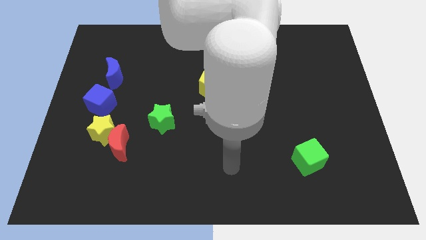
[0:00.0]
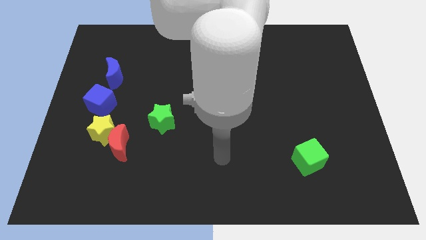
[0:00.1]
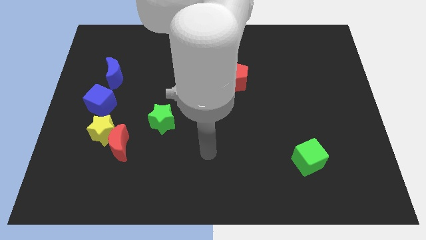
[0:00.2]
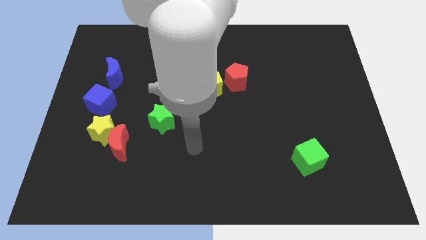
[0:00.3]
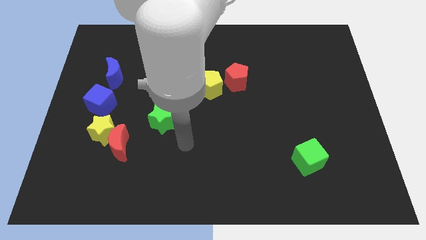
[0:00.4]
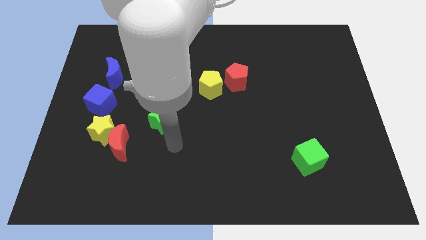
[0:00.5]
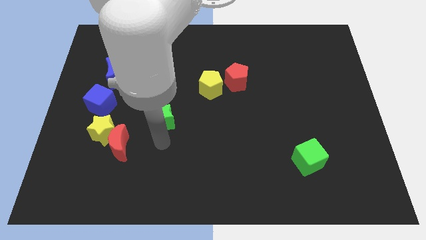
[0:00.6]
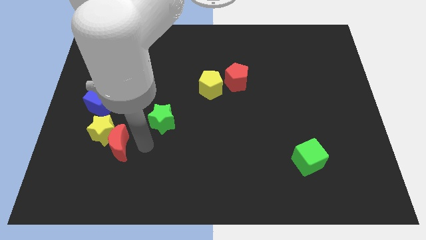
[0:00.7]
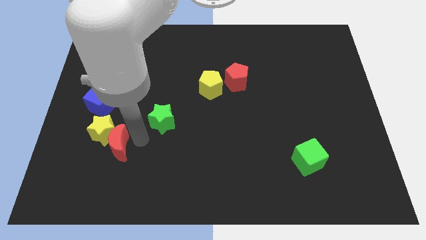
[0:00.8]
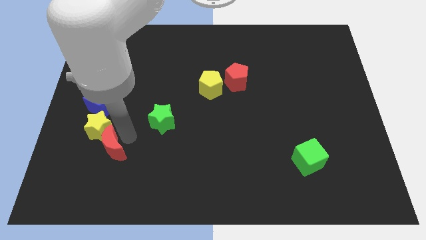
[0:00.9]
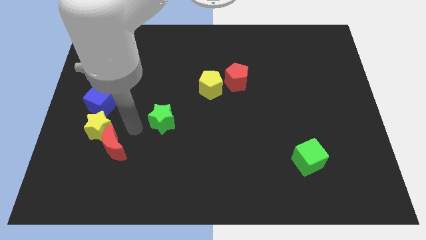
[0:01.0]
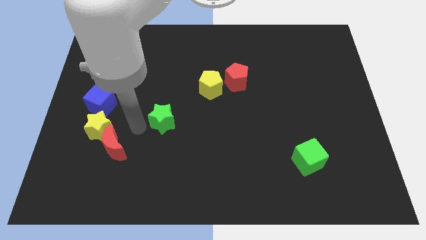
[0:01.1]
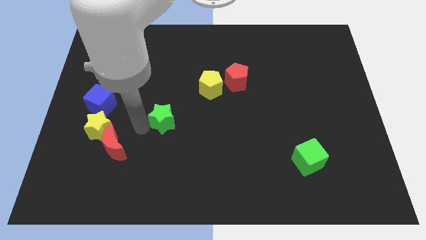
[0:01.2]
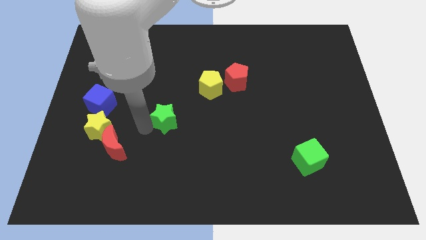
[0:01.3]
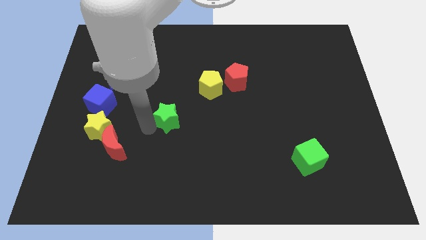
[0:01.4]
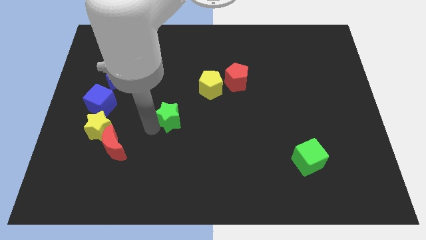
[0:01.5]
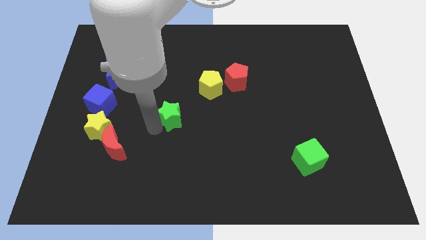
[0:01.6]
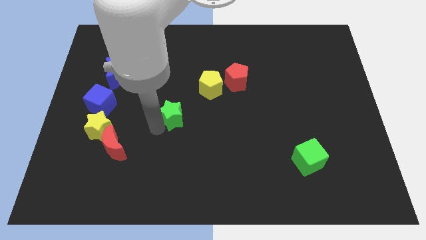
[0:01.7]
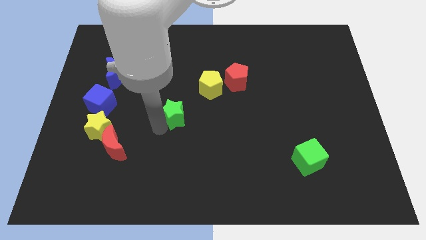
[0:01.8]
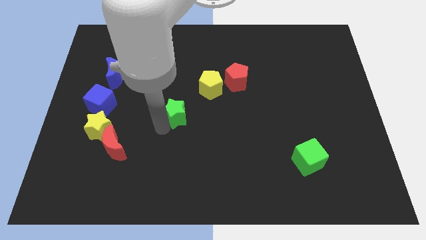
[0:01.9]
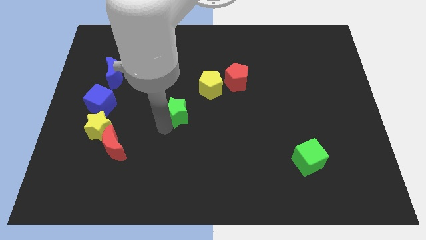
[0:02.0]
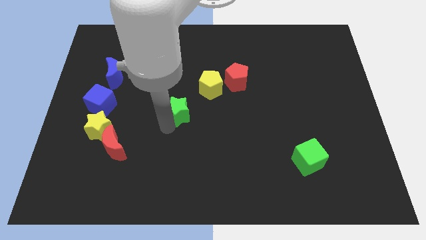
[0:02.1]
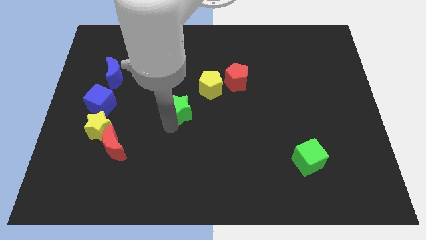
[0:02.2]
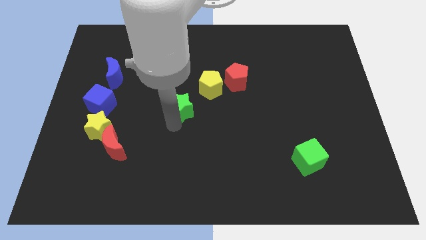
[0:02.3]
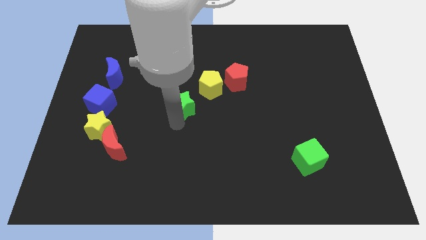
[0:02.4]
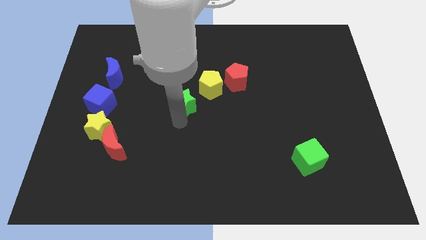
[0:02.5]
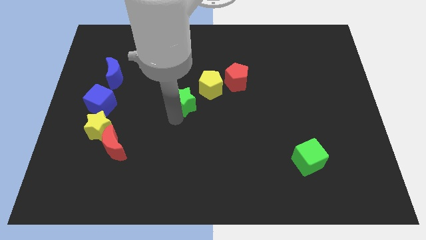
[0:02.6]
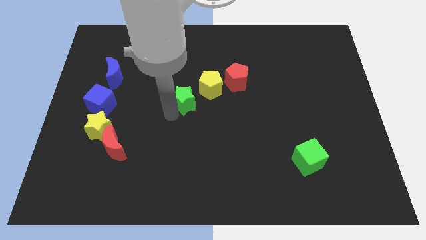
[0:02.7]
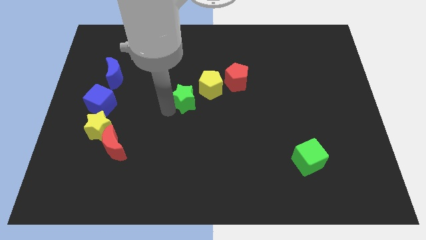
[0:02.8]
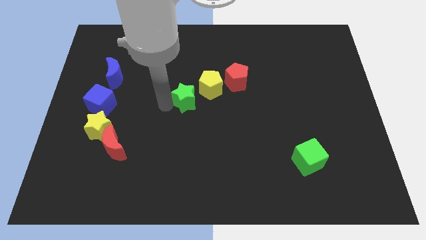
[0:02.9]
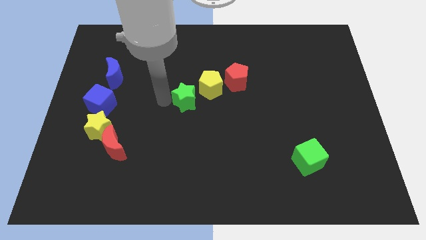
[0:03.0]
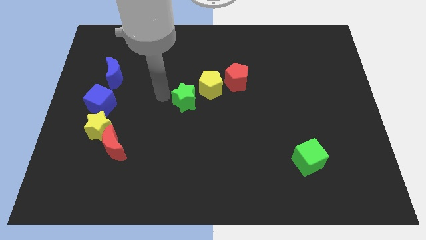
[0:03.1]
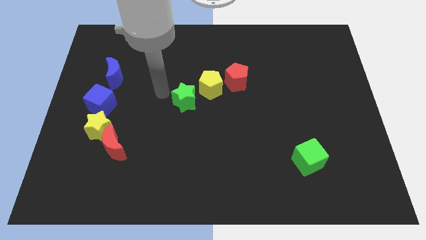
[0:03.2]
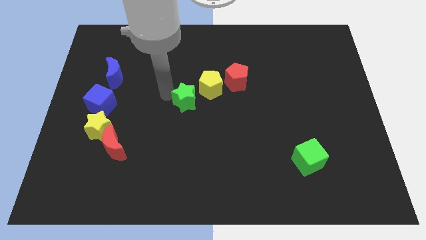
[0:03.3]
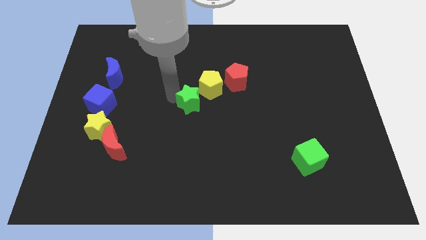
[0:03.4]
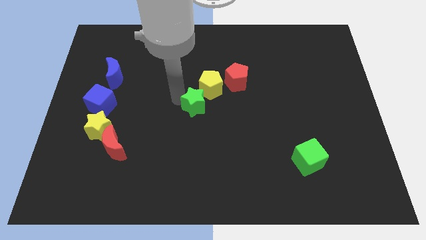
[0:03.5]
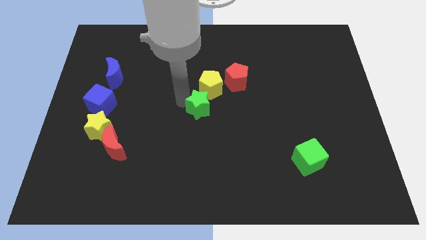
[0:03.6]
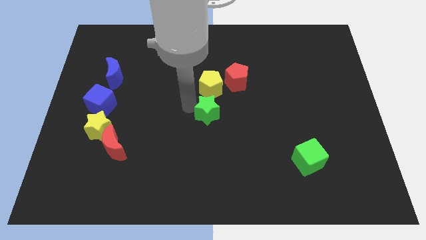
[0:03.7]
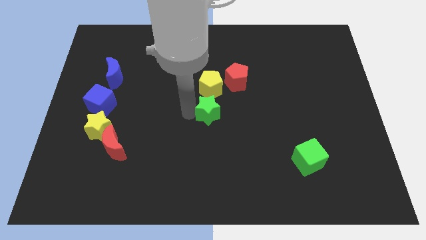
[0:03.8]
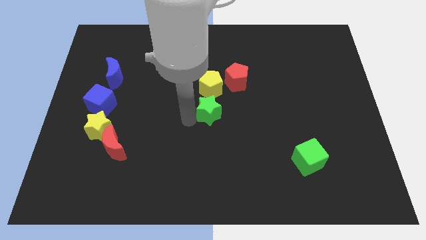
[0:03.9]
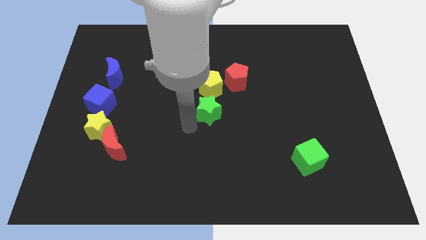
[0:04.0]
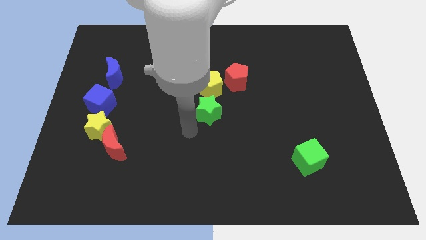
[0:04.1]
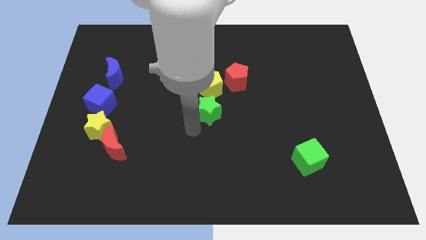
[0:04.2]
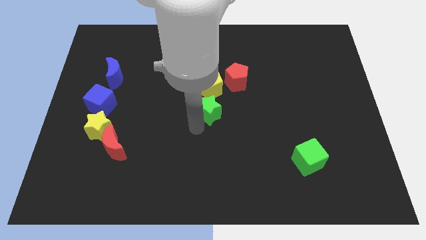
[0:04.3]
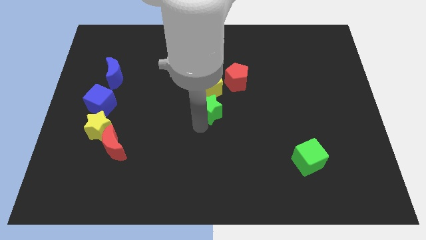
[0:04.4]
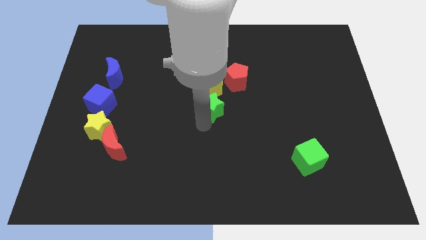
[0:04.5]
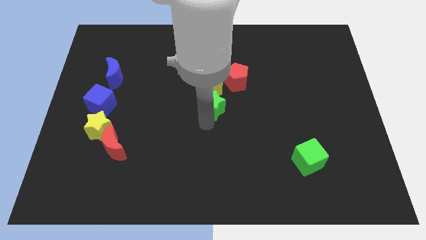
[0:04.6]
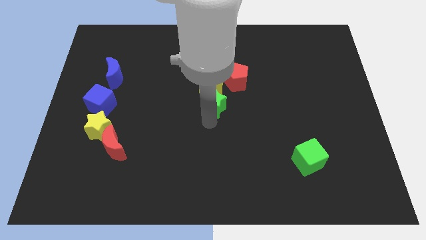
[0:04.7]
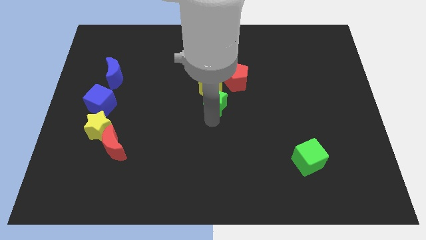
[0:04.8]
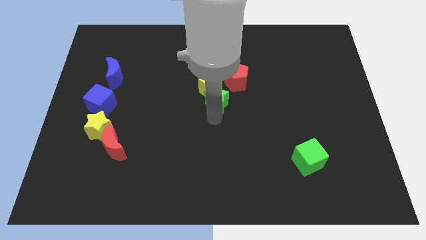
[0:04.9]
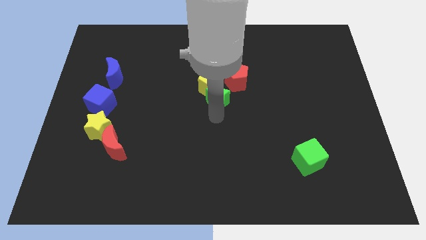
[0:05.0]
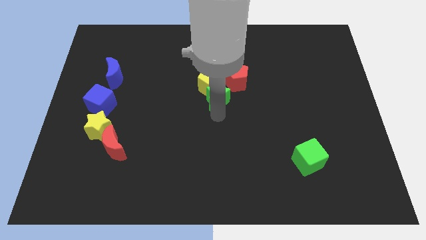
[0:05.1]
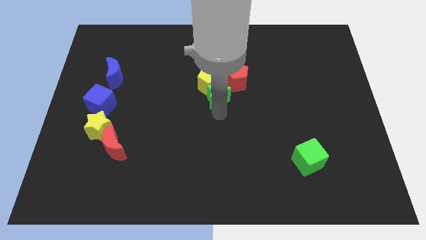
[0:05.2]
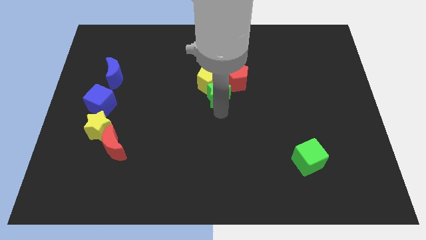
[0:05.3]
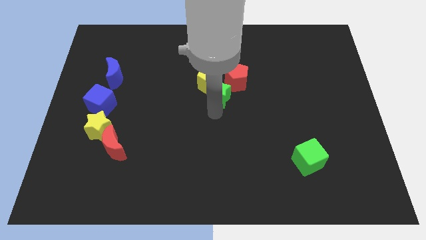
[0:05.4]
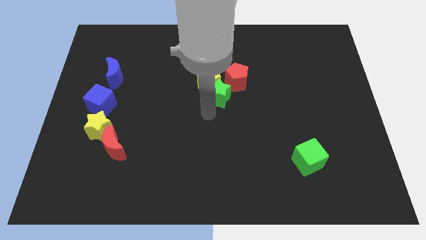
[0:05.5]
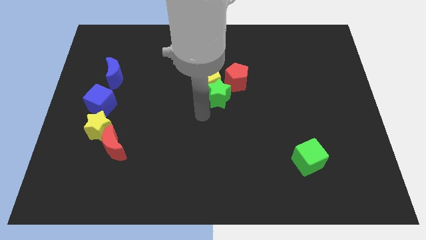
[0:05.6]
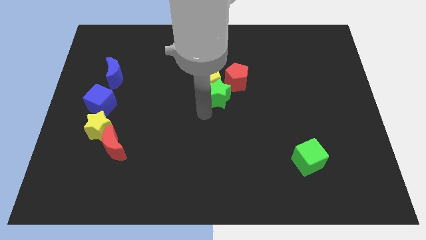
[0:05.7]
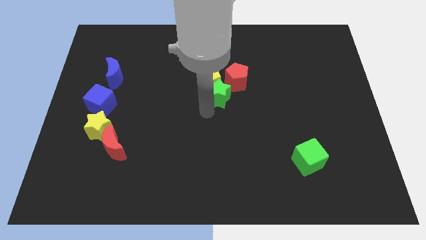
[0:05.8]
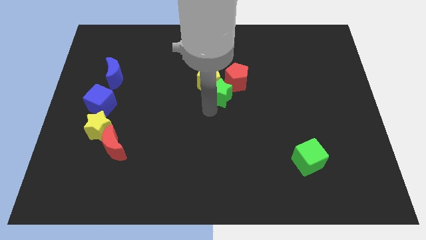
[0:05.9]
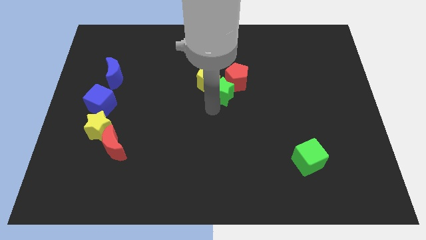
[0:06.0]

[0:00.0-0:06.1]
push the green star to the red pentagon
